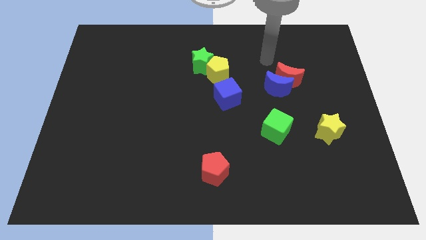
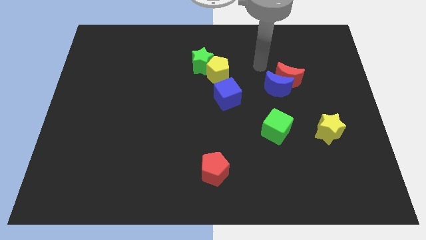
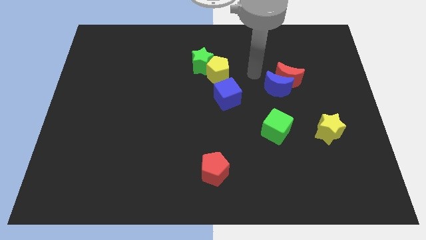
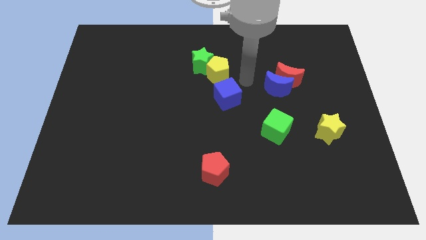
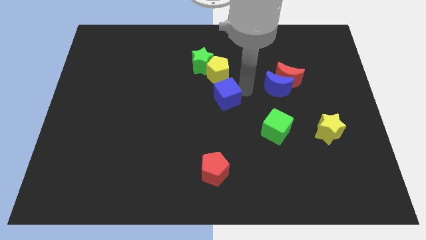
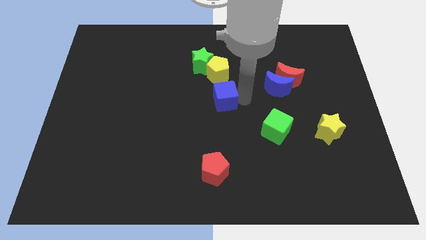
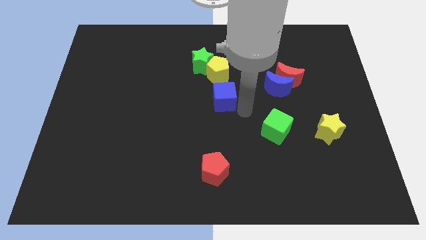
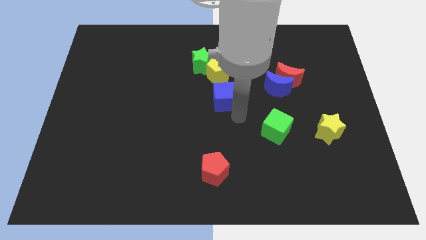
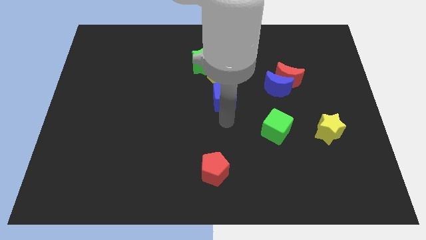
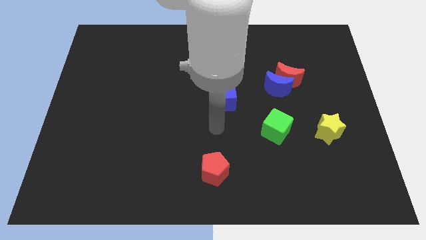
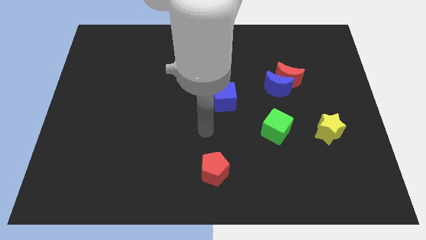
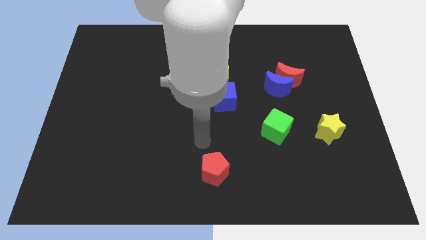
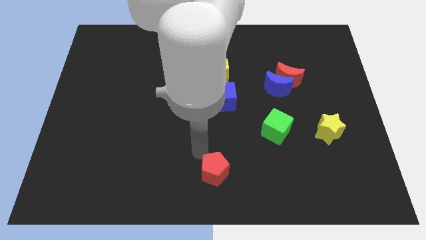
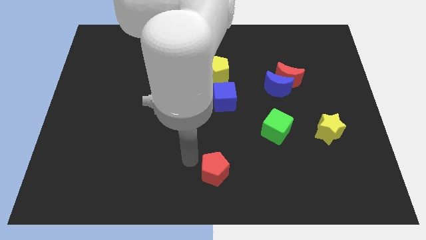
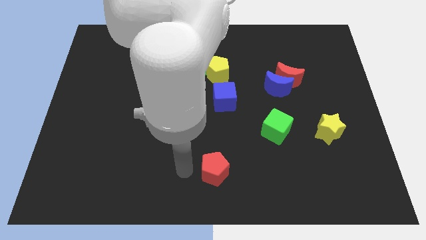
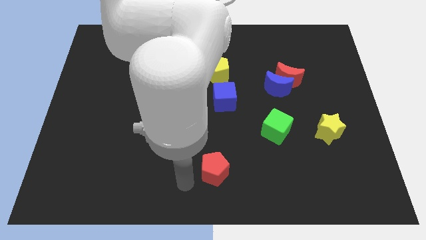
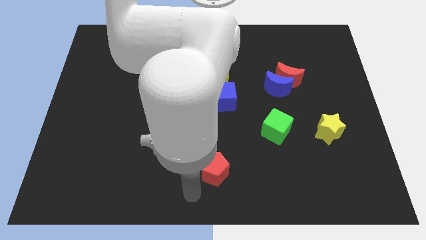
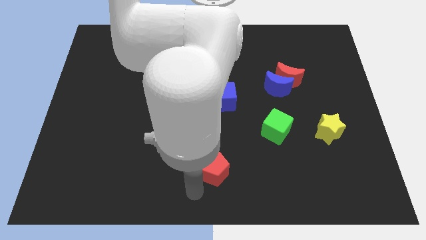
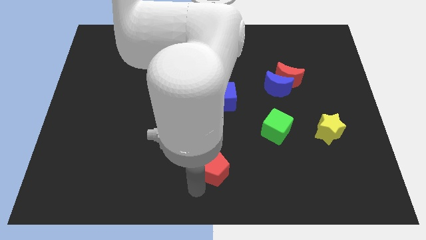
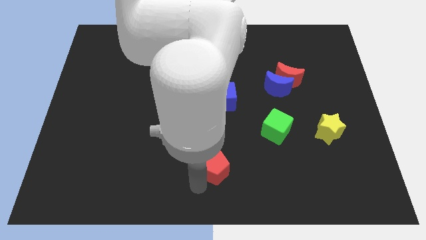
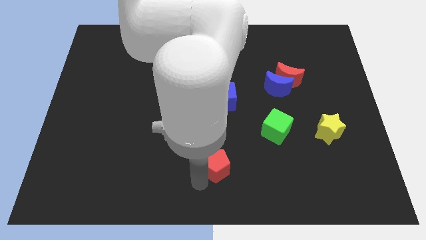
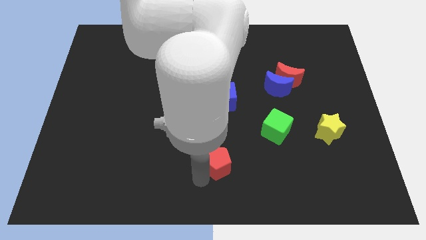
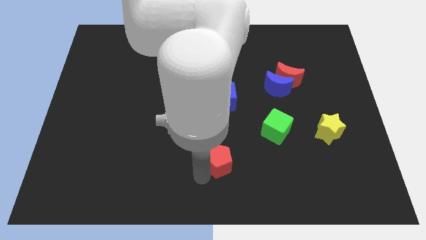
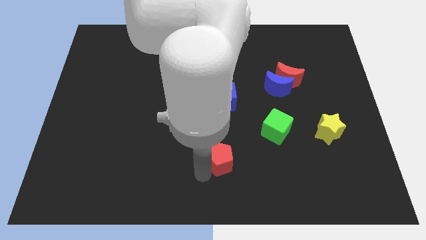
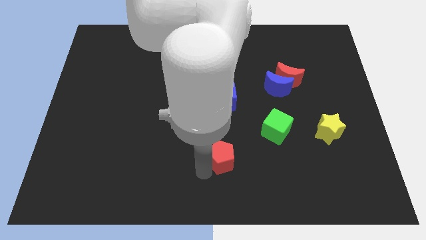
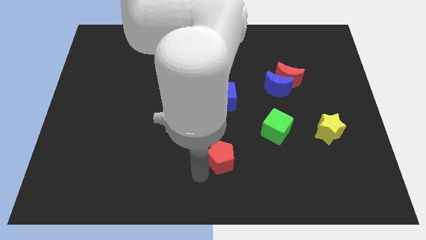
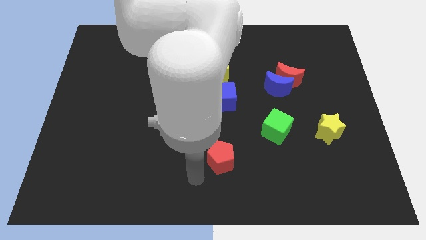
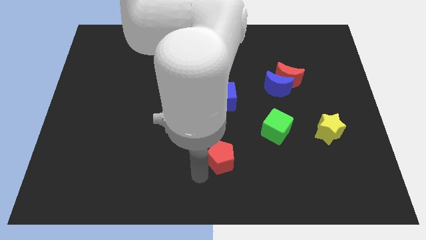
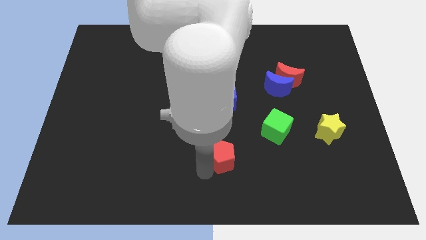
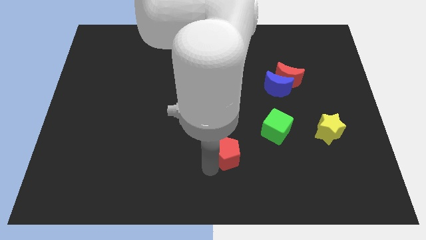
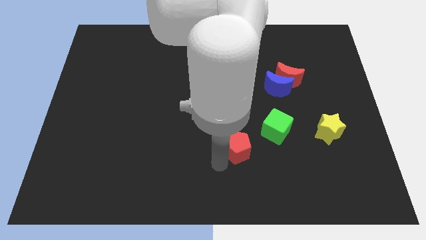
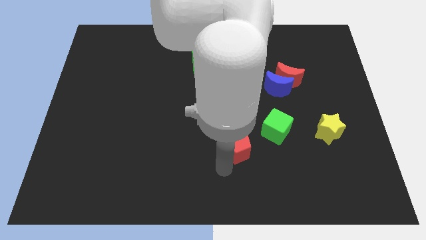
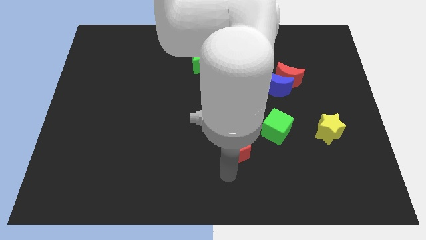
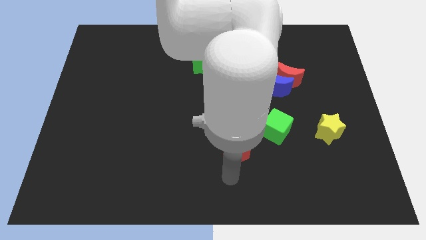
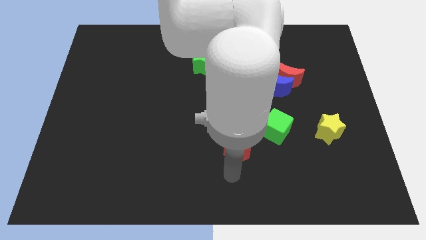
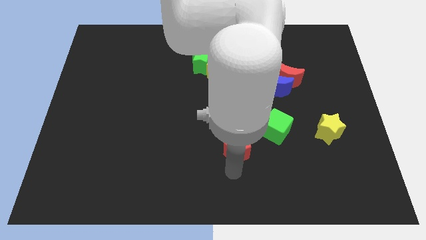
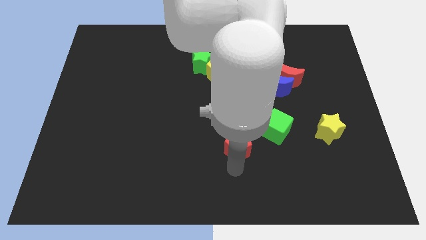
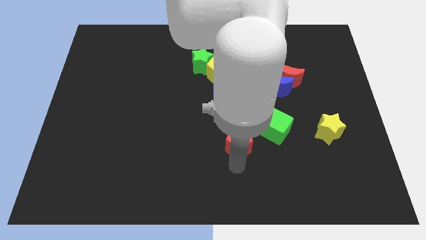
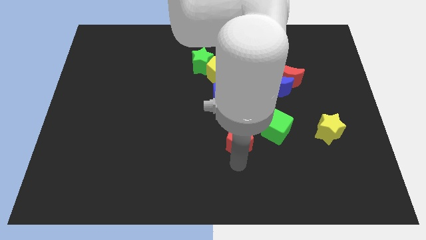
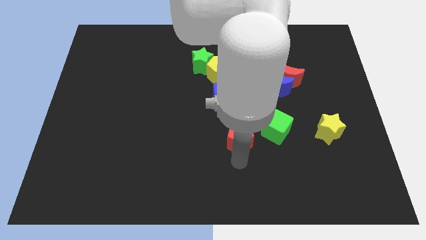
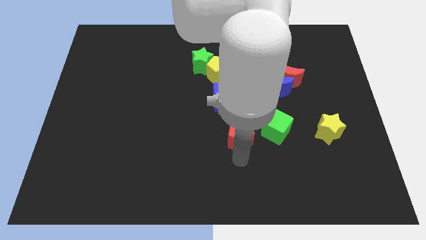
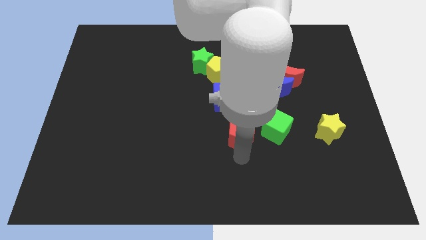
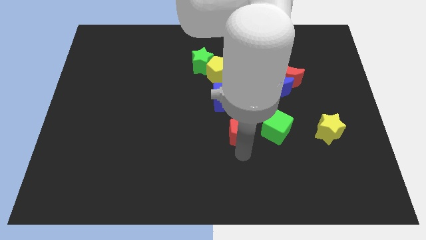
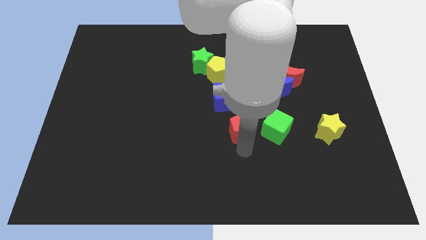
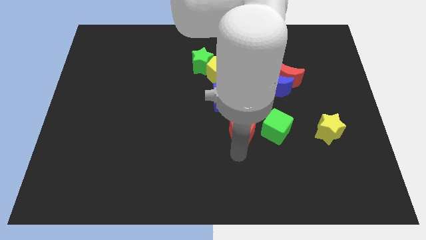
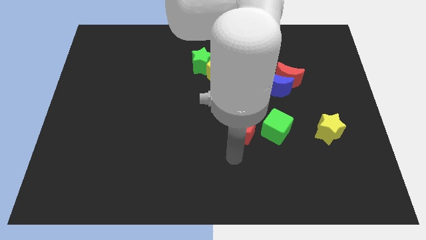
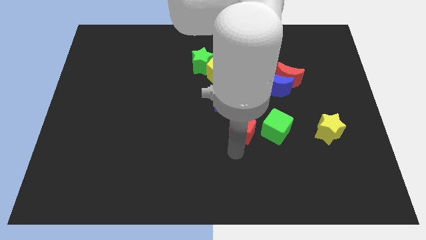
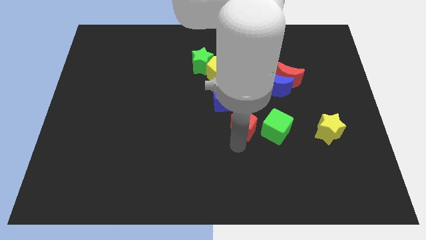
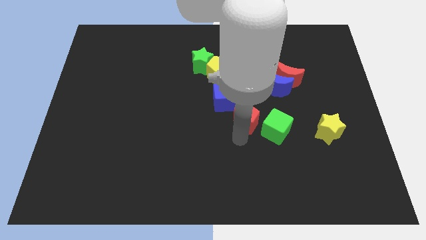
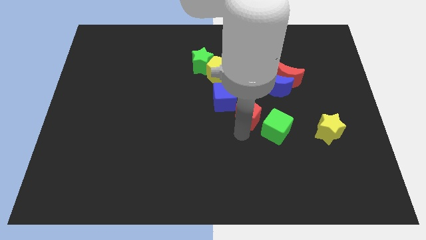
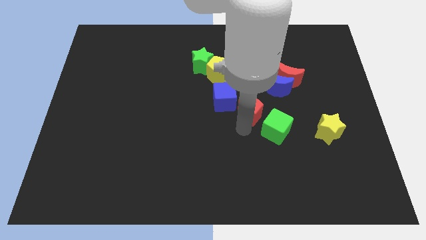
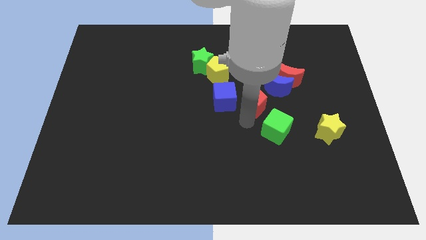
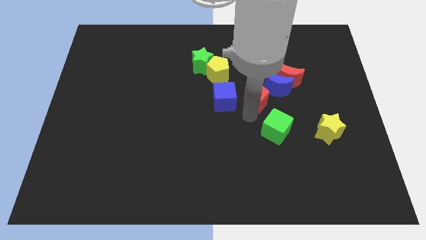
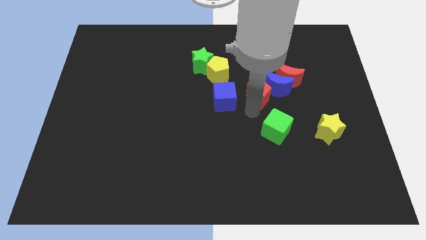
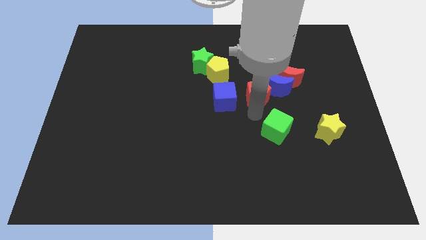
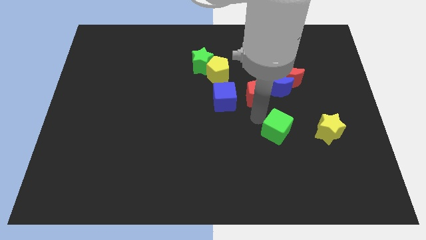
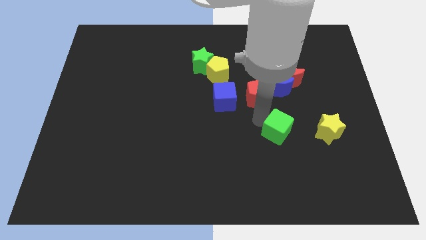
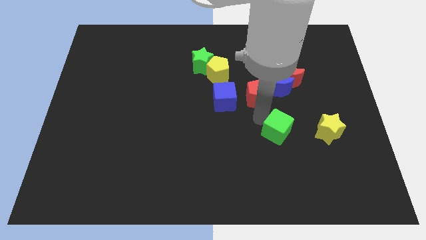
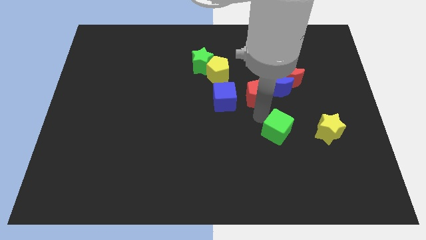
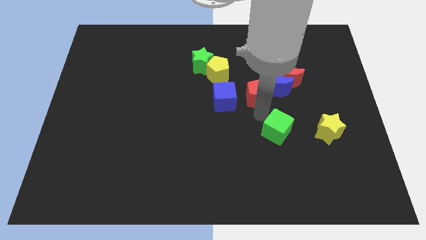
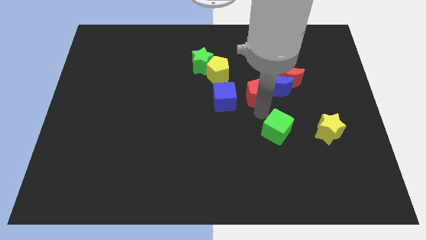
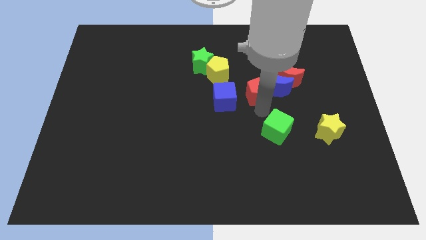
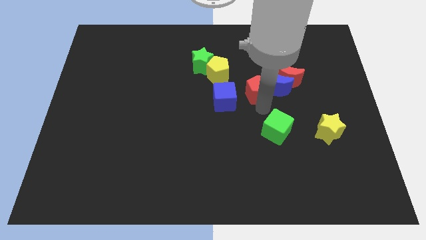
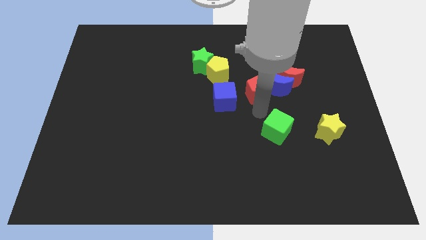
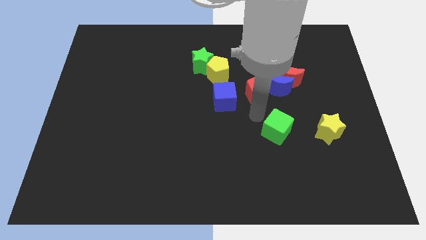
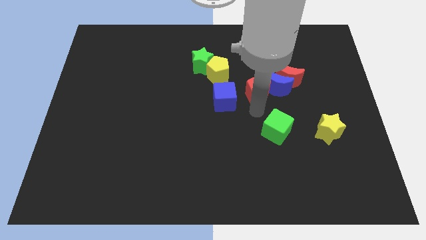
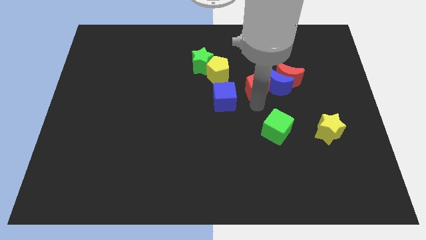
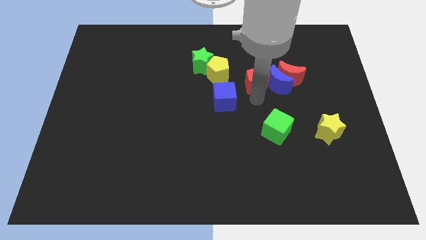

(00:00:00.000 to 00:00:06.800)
put the red pentagon just right of the yellow pentagon
